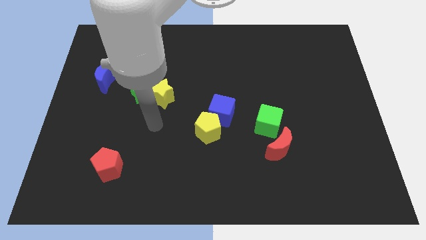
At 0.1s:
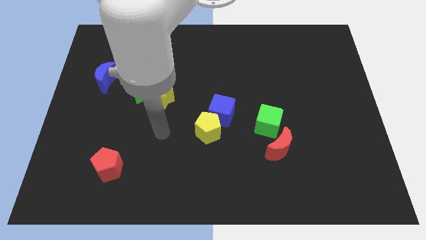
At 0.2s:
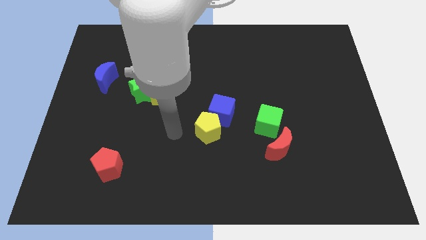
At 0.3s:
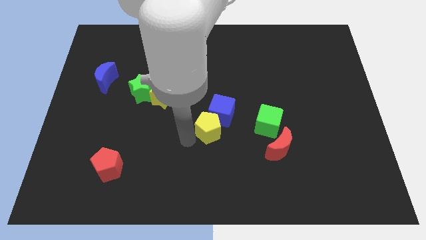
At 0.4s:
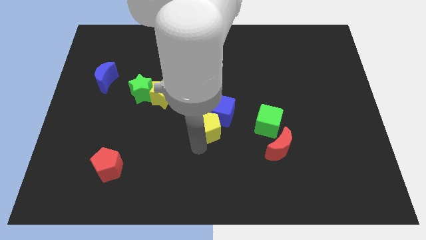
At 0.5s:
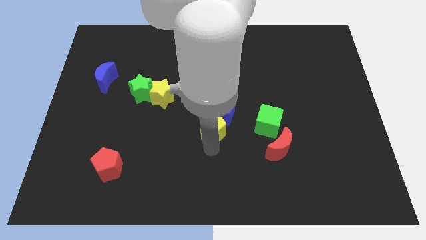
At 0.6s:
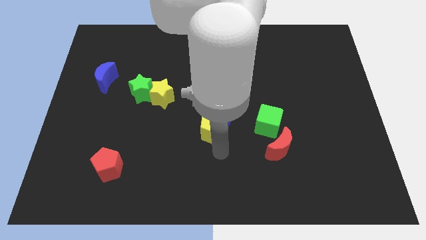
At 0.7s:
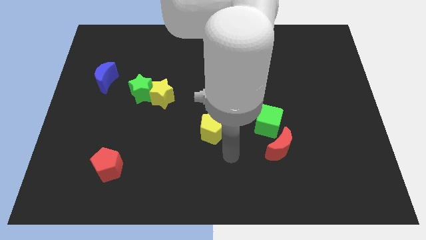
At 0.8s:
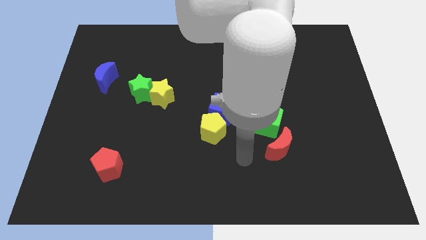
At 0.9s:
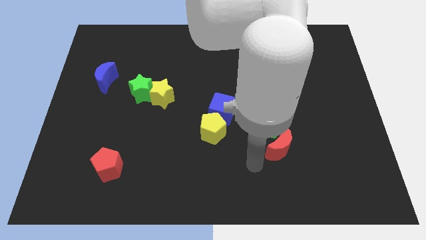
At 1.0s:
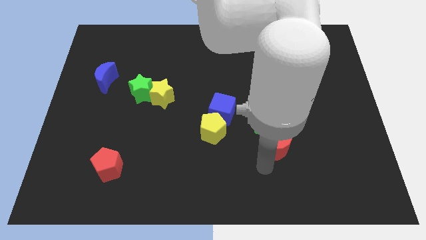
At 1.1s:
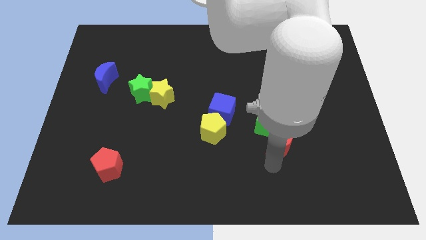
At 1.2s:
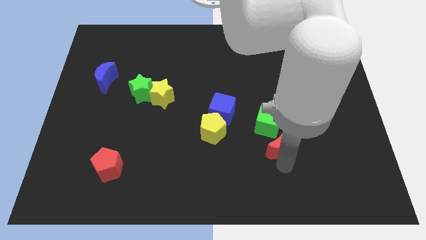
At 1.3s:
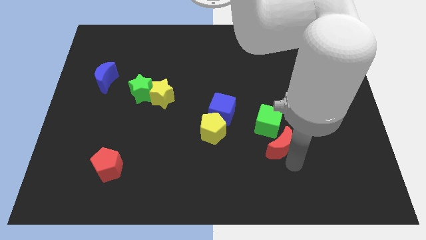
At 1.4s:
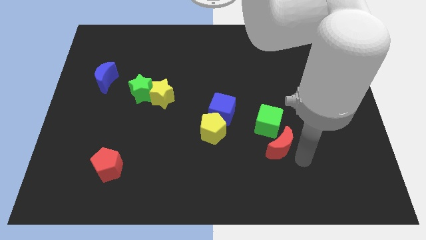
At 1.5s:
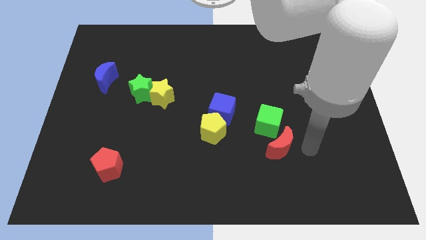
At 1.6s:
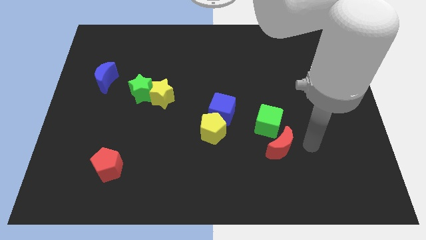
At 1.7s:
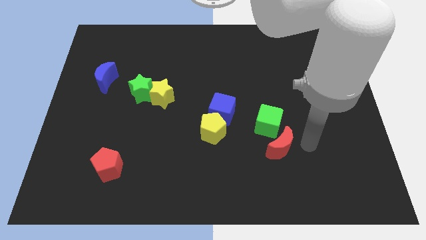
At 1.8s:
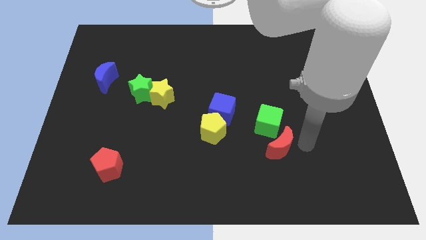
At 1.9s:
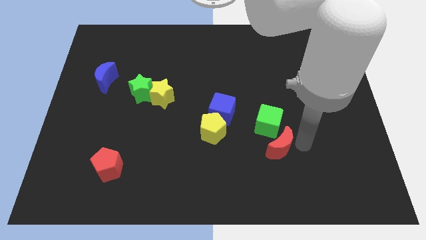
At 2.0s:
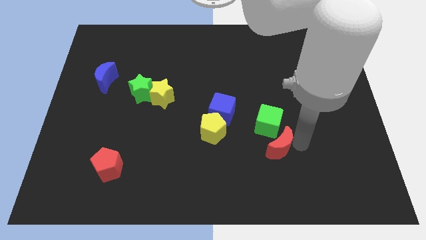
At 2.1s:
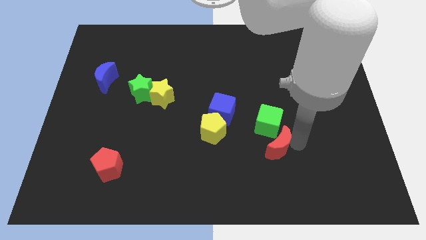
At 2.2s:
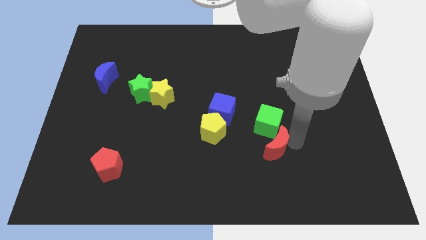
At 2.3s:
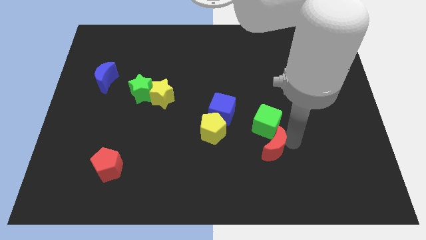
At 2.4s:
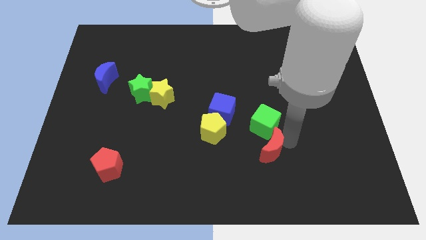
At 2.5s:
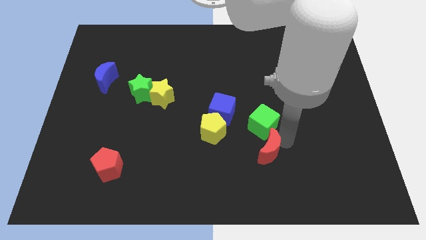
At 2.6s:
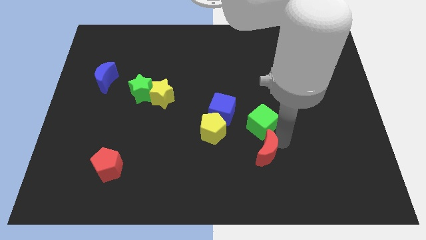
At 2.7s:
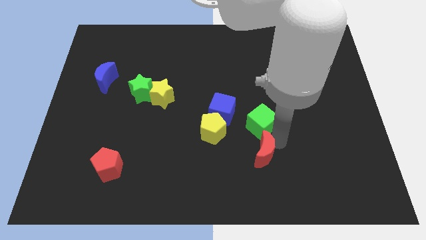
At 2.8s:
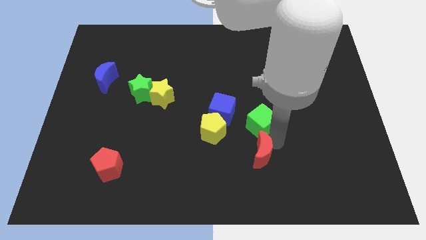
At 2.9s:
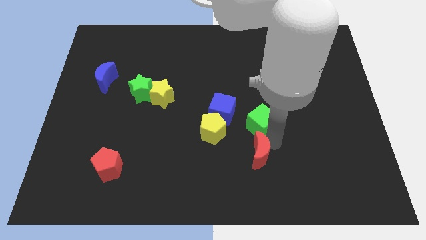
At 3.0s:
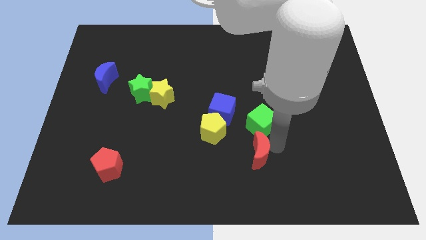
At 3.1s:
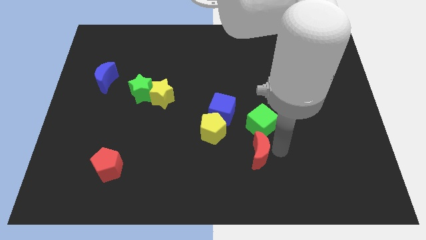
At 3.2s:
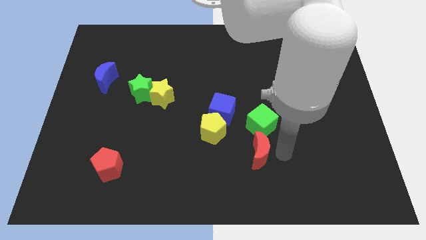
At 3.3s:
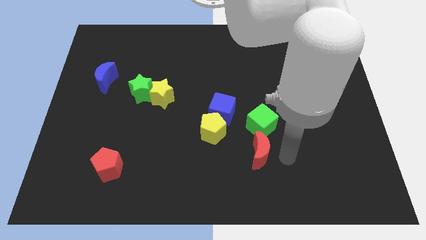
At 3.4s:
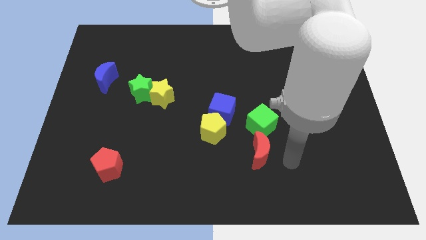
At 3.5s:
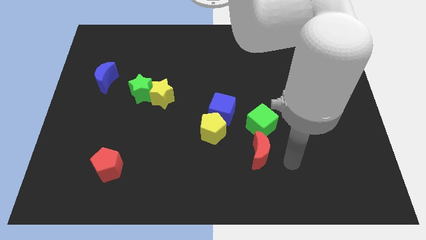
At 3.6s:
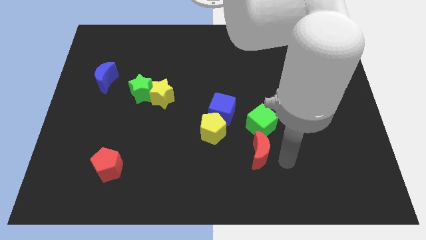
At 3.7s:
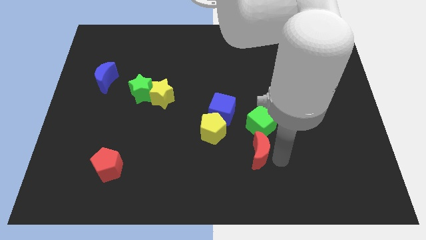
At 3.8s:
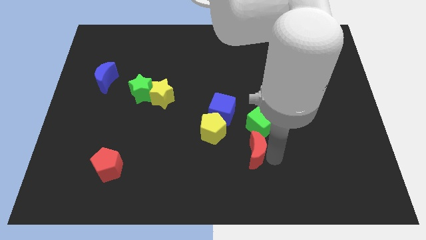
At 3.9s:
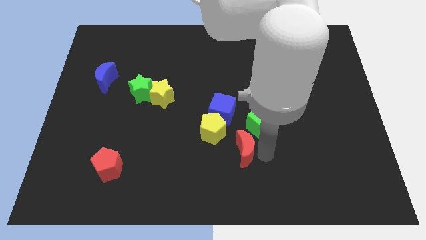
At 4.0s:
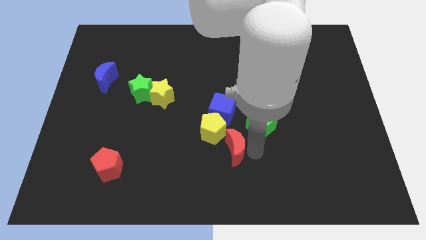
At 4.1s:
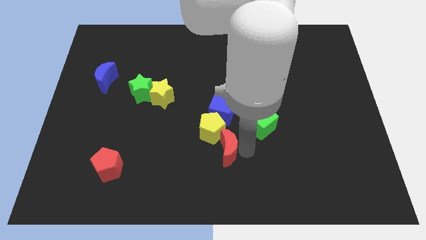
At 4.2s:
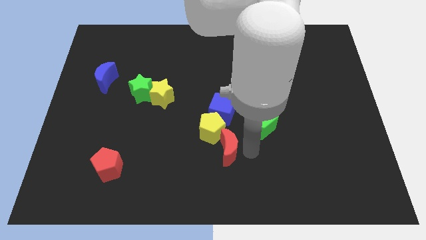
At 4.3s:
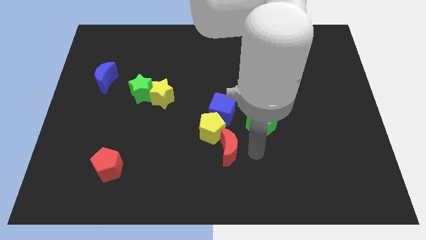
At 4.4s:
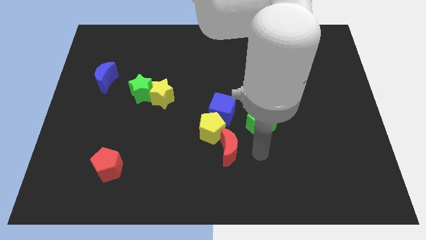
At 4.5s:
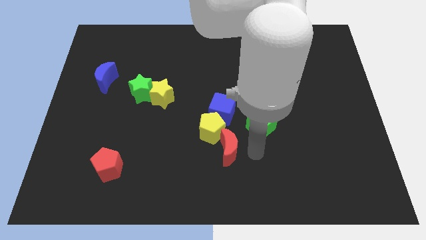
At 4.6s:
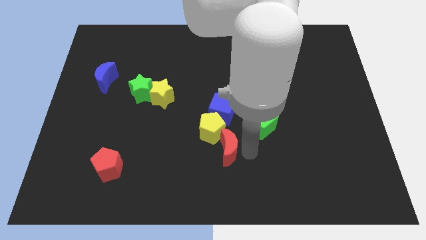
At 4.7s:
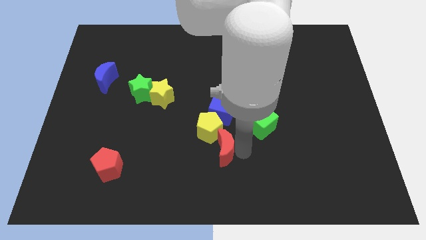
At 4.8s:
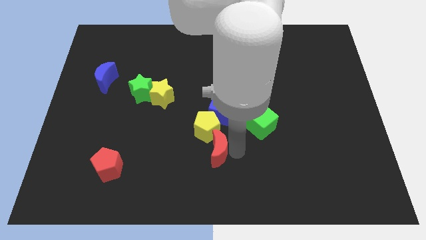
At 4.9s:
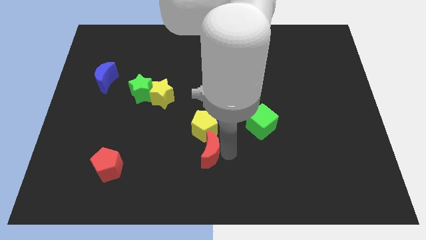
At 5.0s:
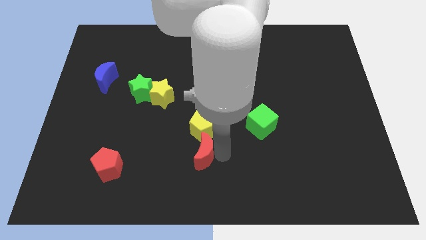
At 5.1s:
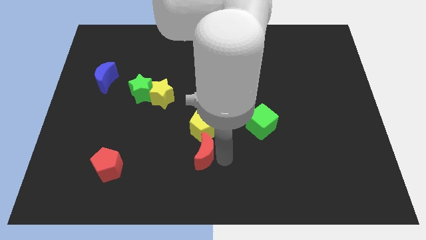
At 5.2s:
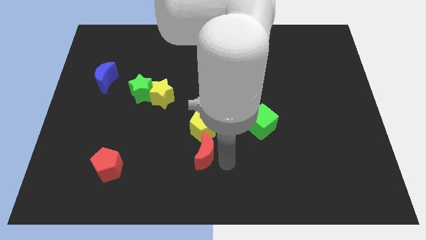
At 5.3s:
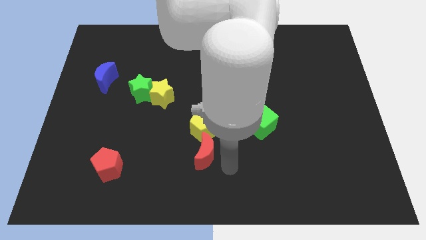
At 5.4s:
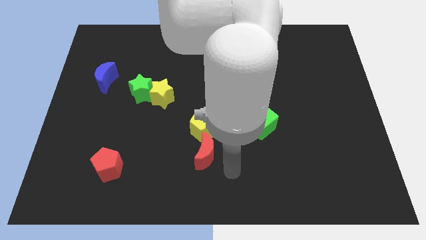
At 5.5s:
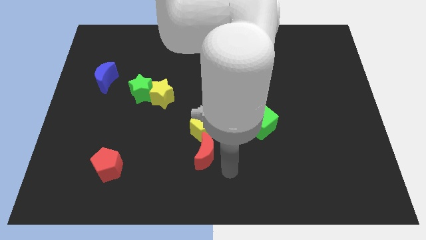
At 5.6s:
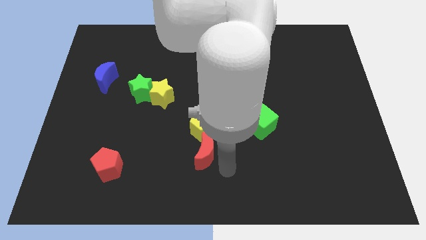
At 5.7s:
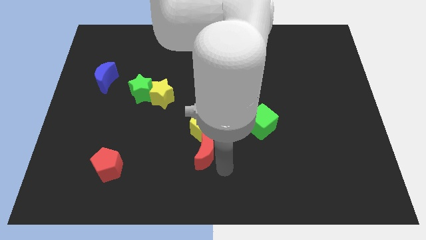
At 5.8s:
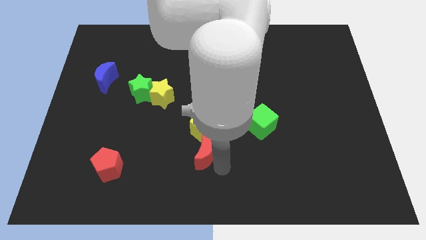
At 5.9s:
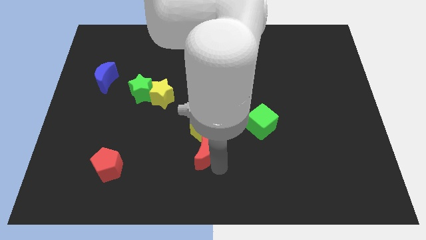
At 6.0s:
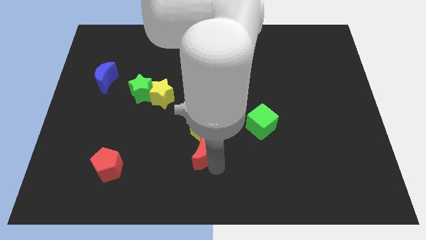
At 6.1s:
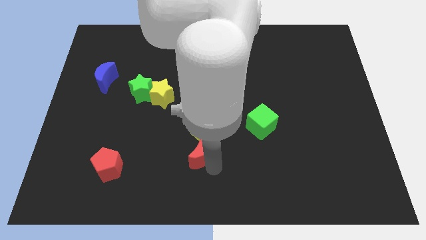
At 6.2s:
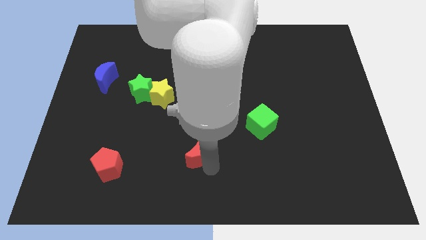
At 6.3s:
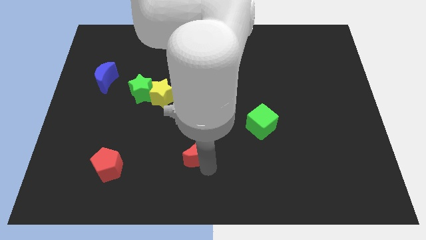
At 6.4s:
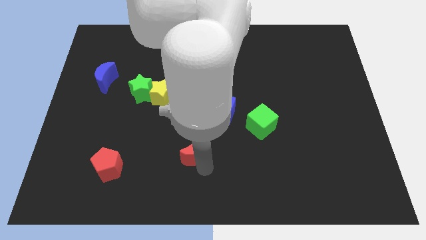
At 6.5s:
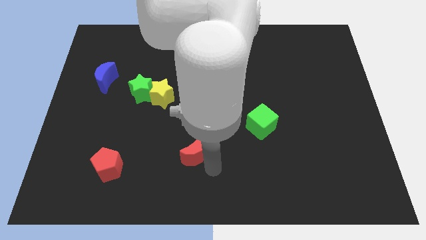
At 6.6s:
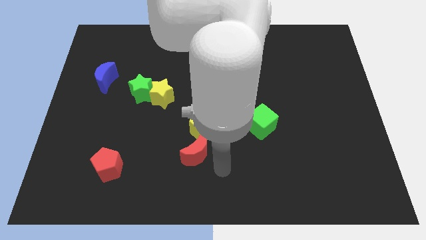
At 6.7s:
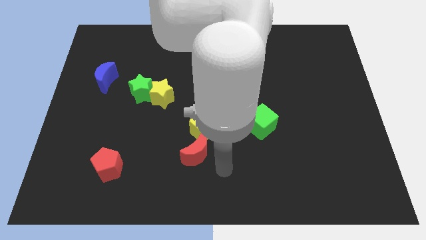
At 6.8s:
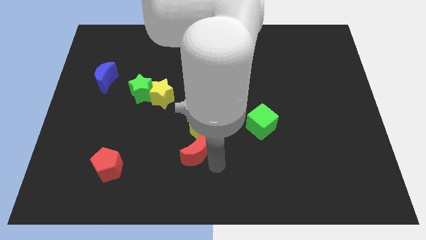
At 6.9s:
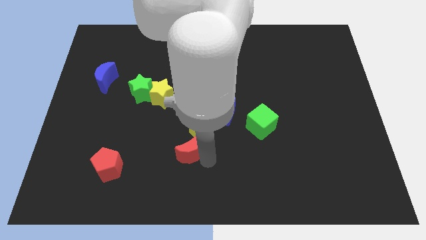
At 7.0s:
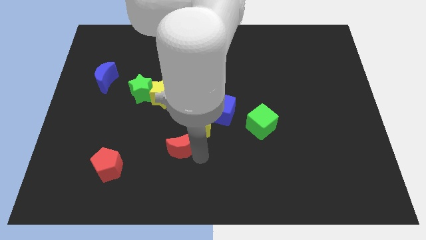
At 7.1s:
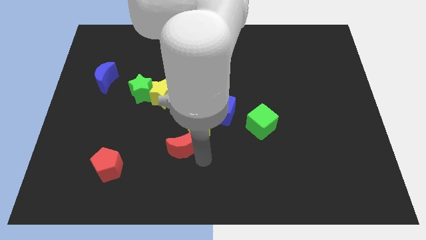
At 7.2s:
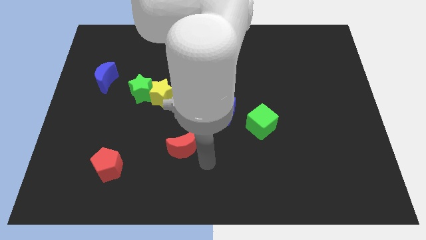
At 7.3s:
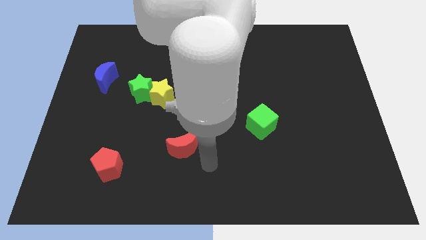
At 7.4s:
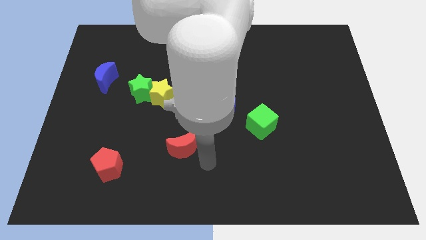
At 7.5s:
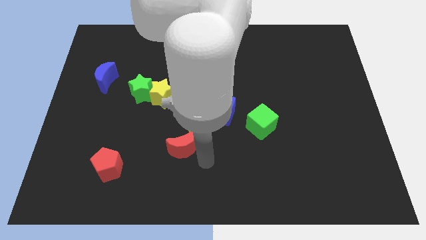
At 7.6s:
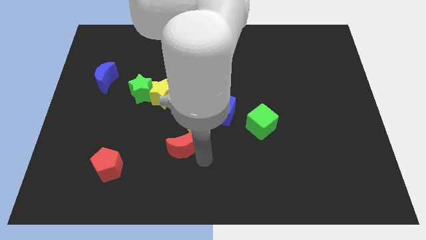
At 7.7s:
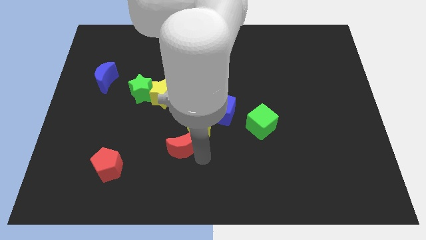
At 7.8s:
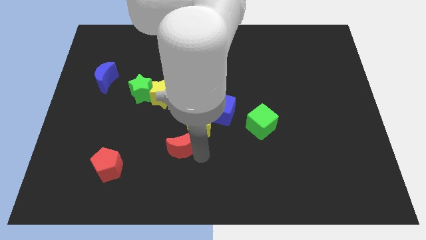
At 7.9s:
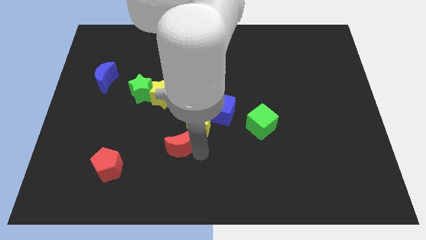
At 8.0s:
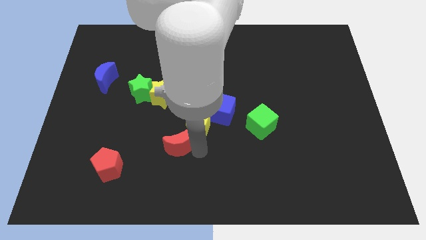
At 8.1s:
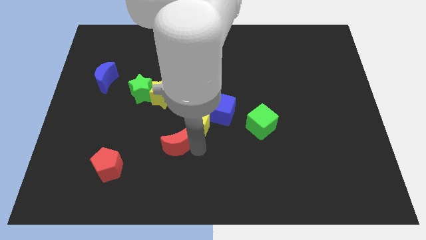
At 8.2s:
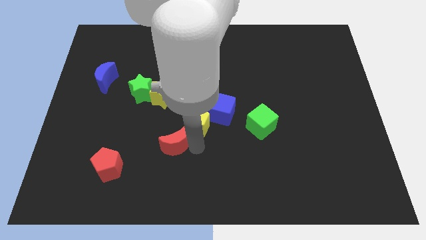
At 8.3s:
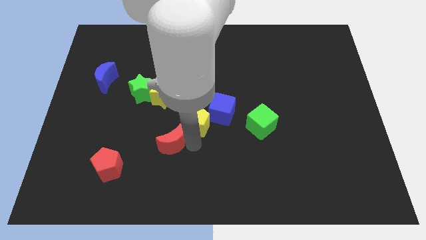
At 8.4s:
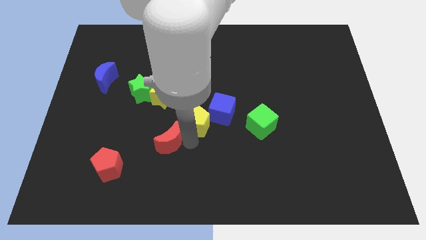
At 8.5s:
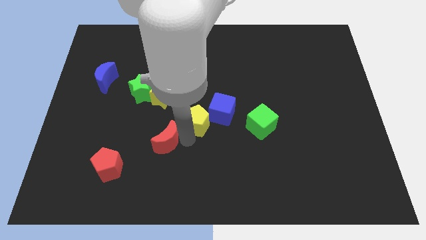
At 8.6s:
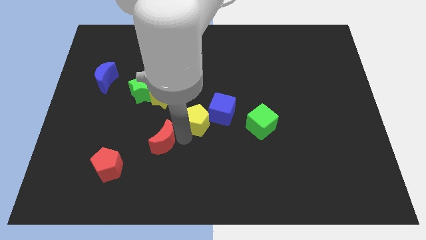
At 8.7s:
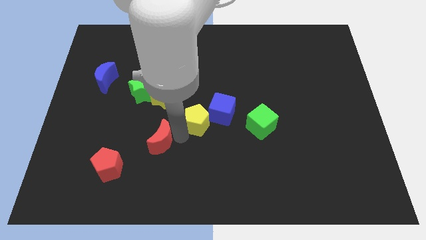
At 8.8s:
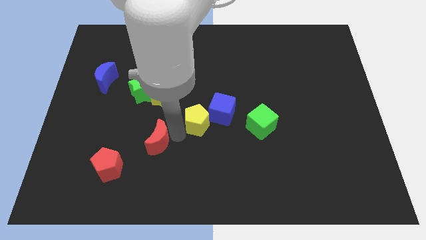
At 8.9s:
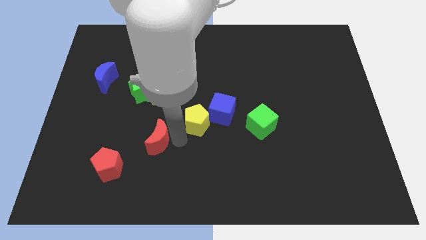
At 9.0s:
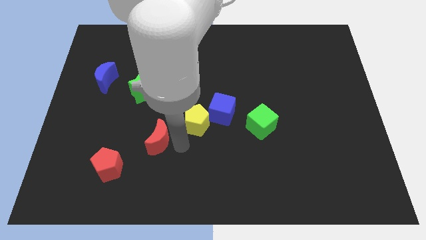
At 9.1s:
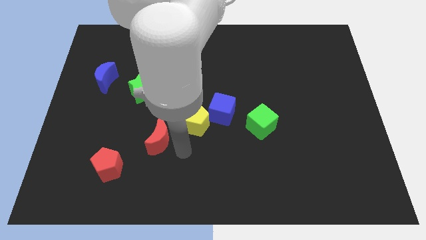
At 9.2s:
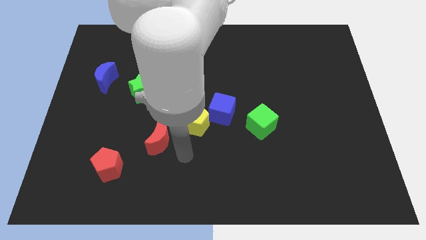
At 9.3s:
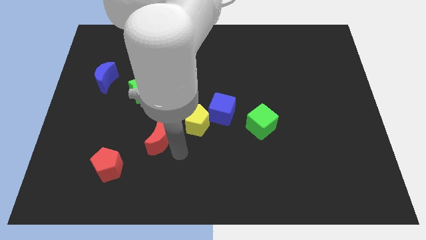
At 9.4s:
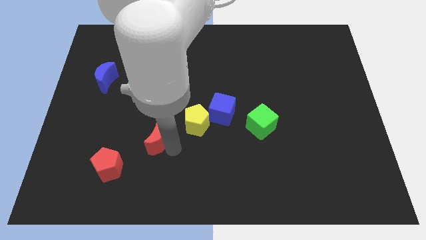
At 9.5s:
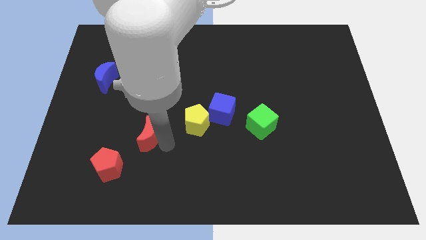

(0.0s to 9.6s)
slide the red moon below the green star
